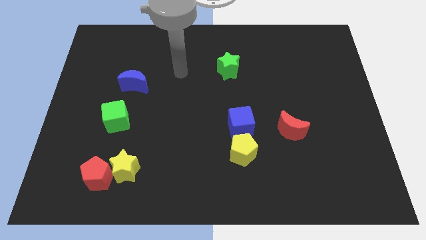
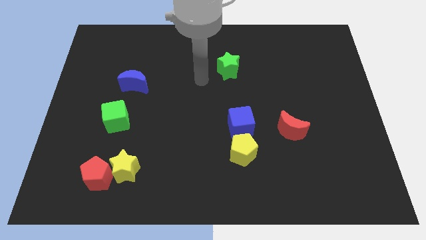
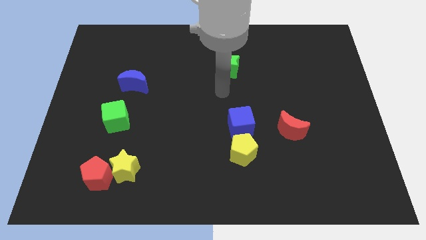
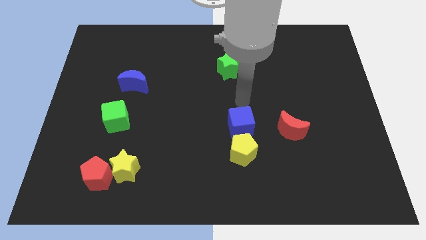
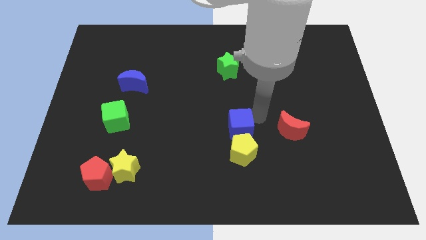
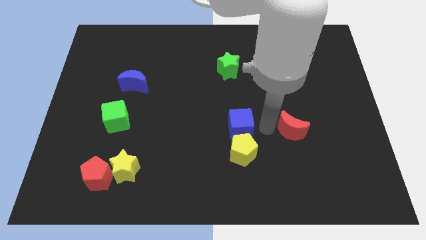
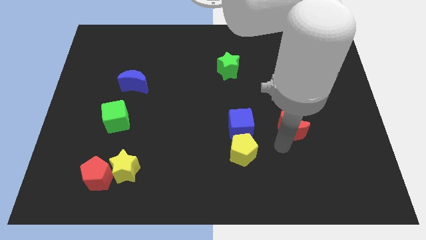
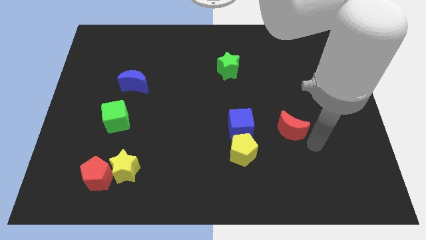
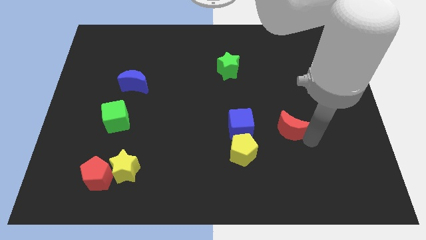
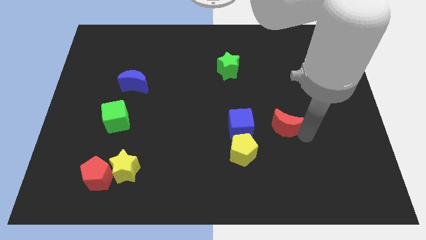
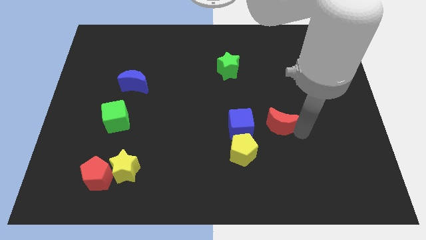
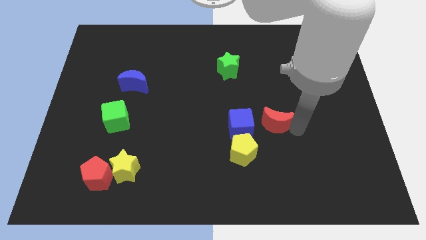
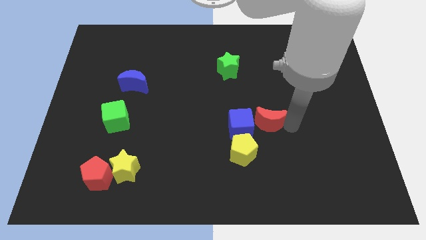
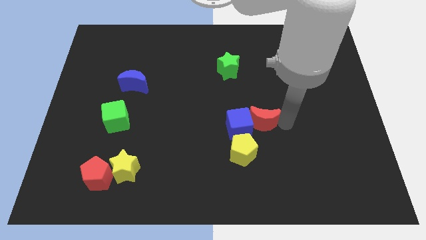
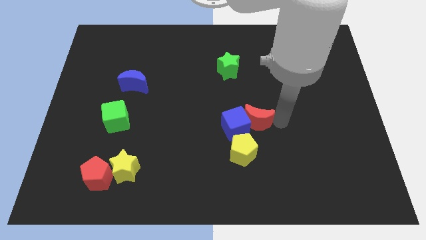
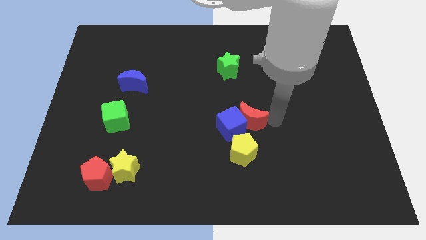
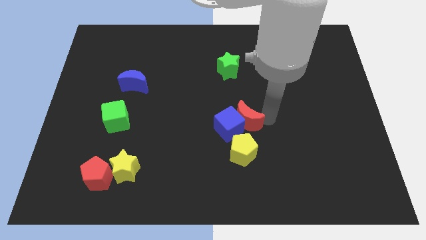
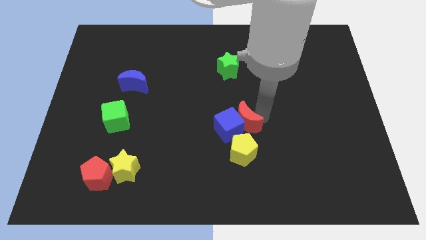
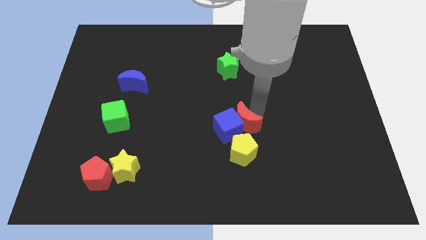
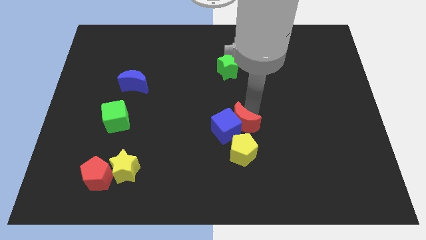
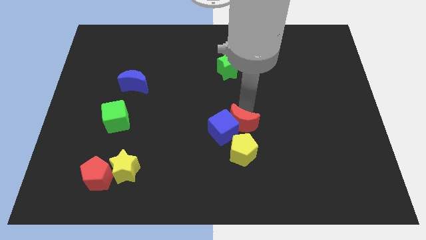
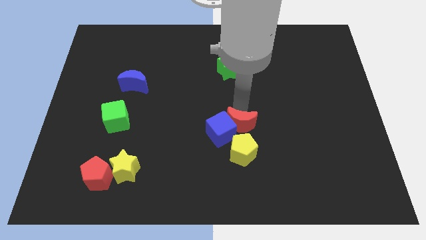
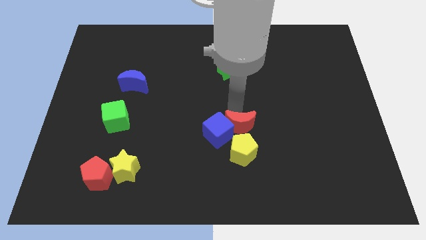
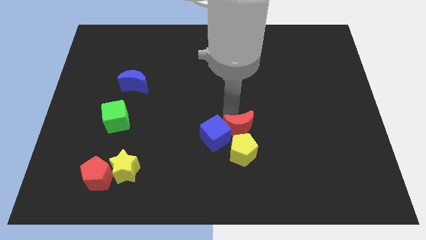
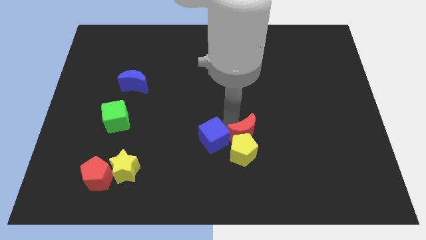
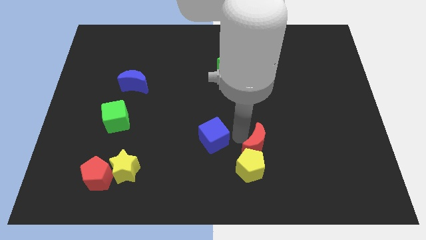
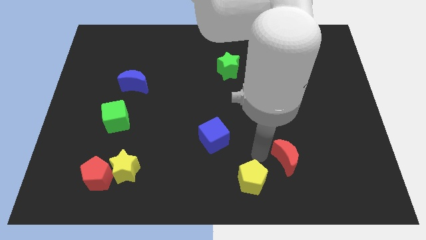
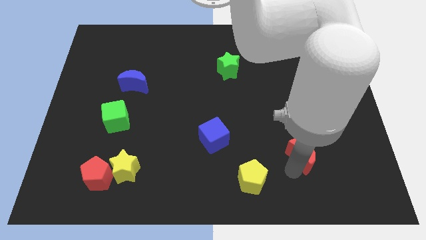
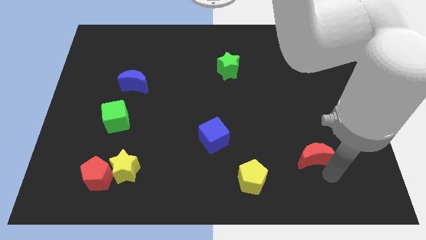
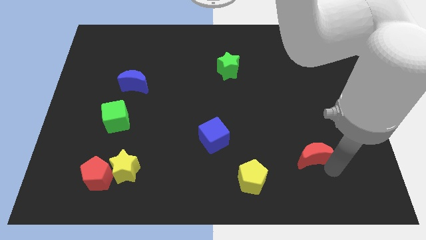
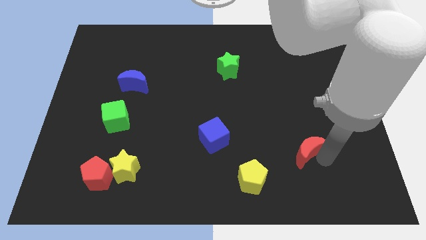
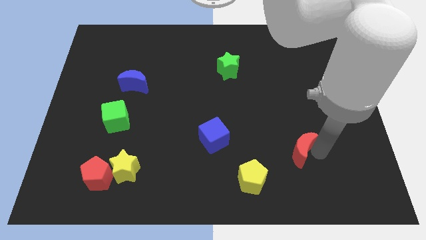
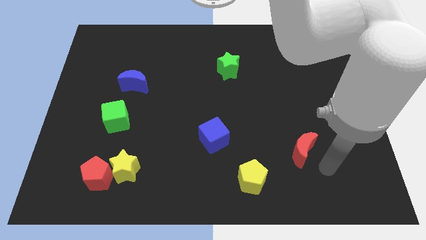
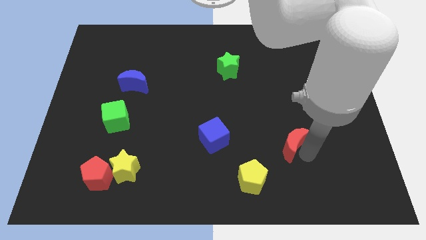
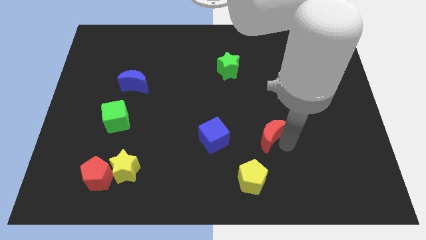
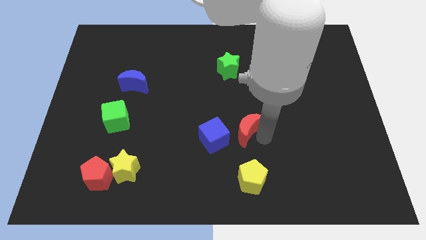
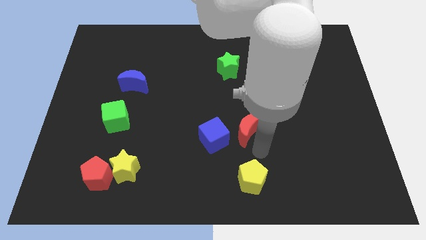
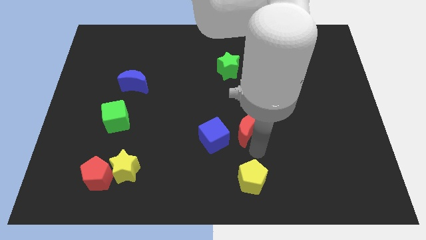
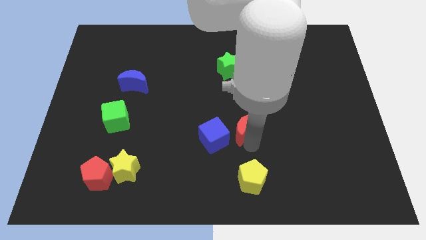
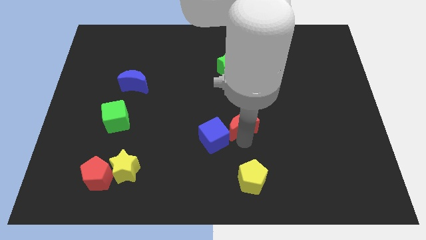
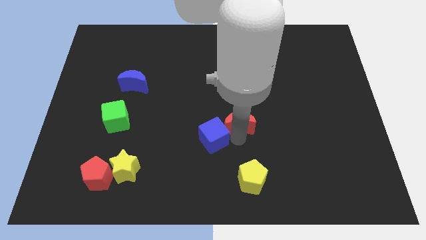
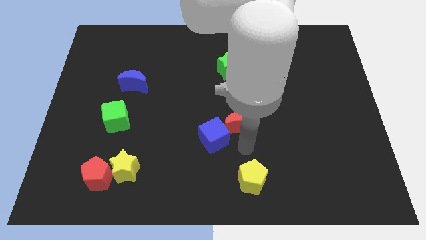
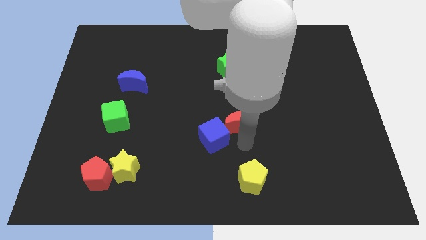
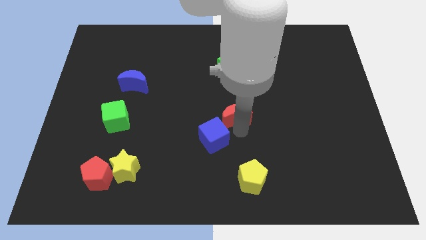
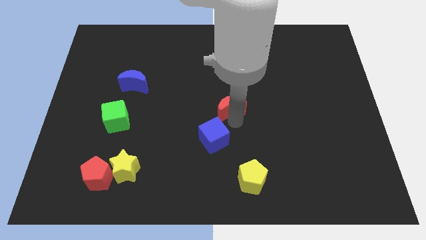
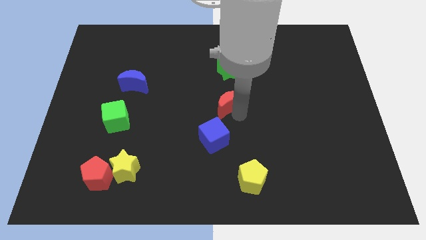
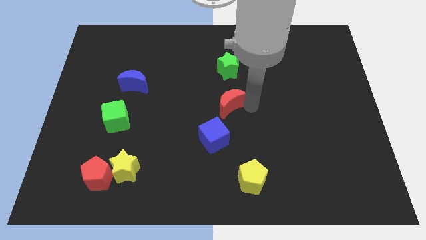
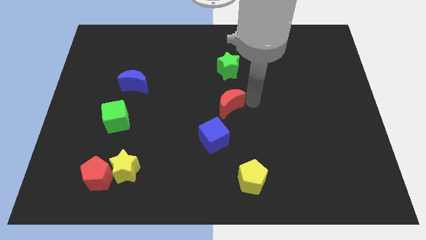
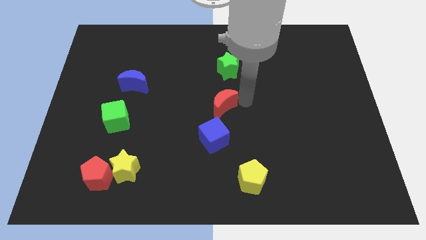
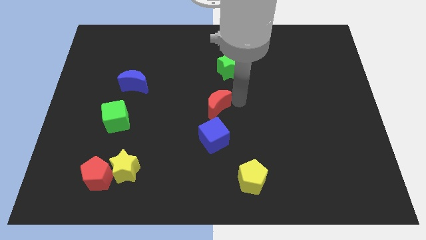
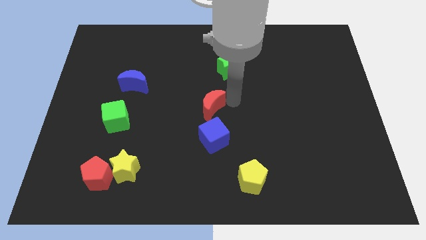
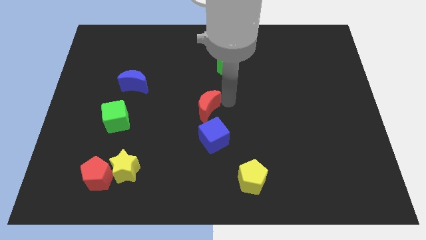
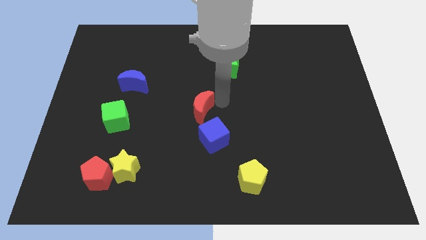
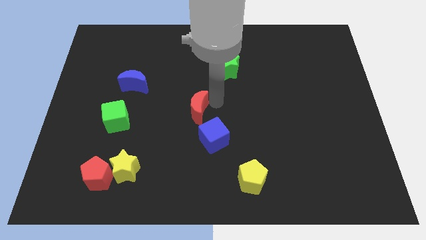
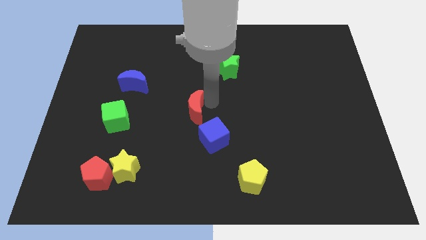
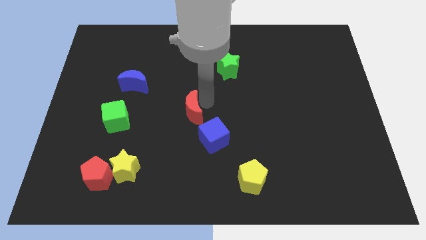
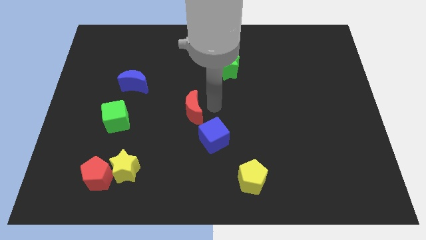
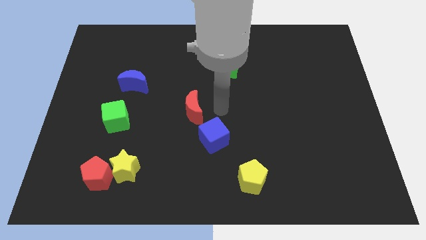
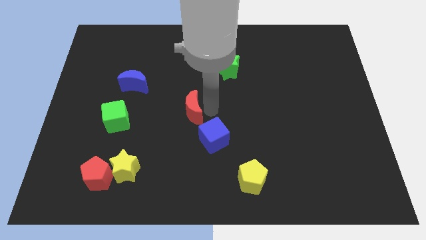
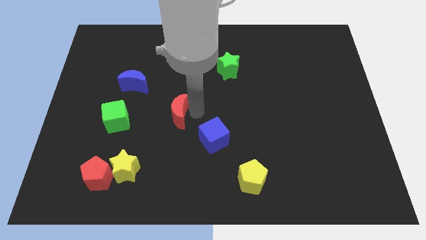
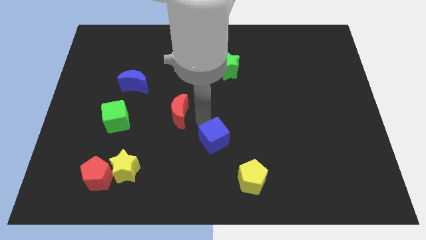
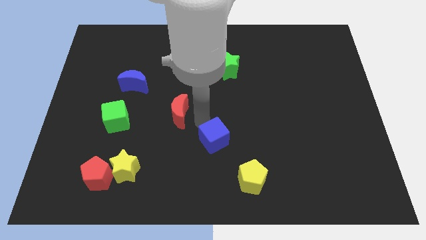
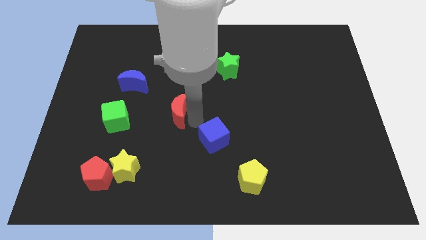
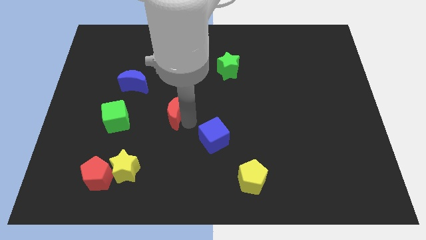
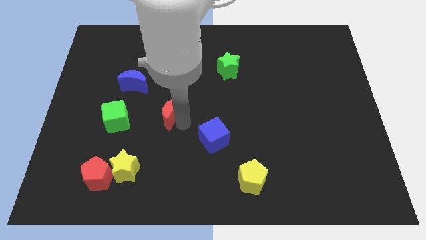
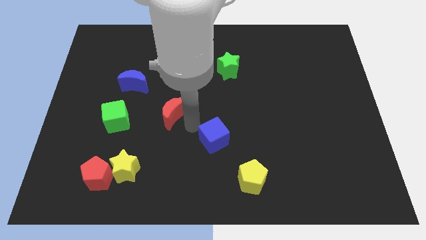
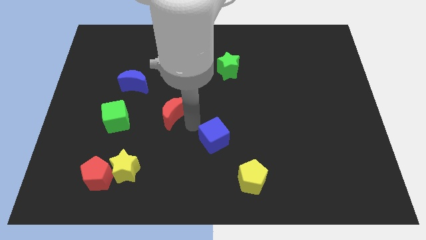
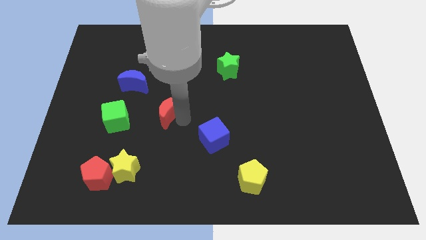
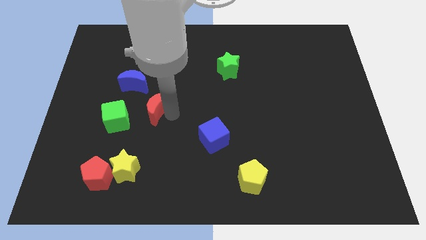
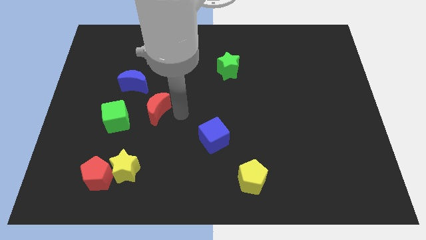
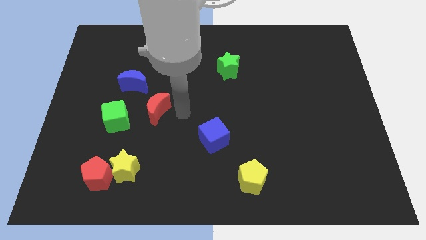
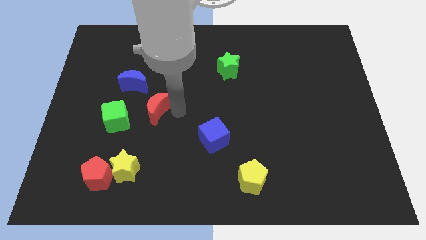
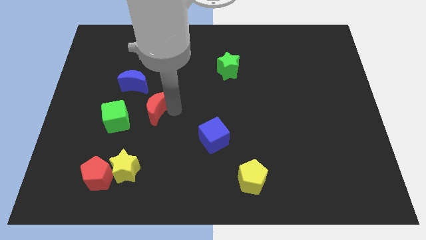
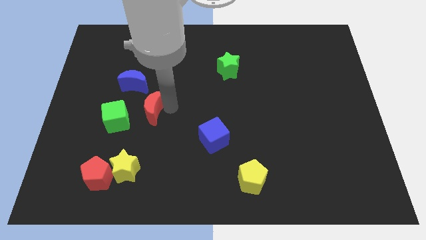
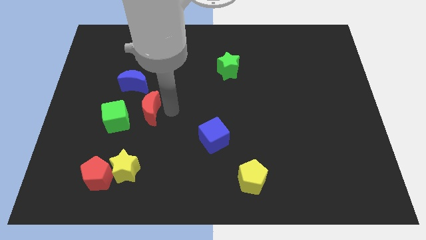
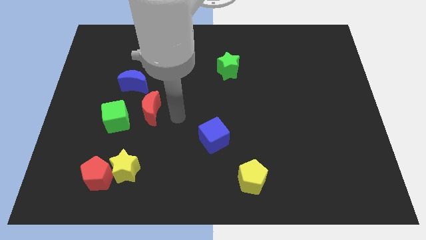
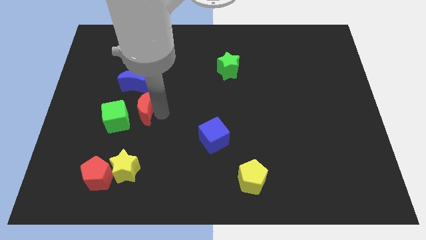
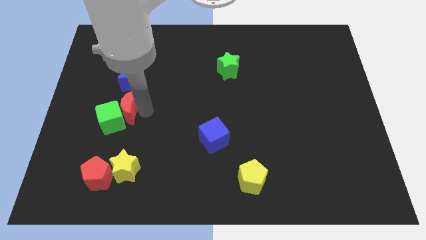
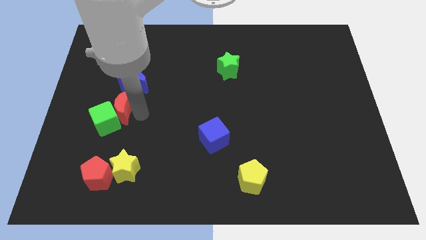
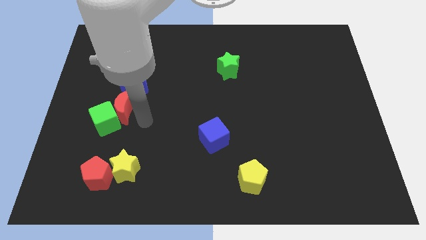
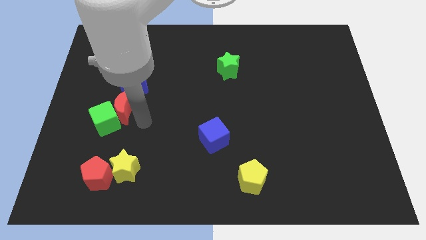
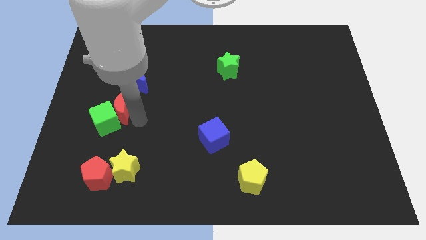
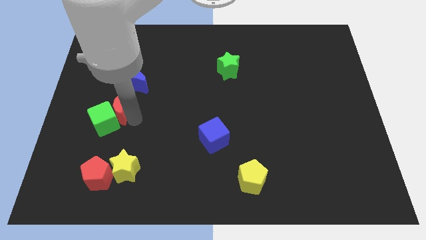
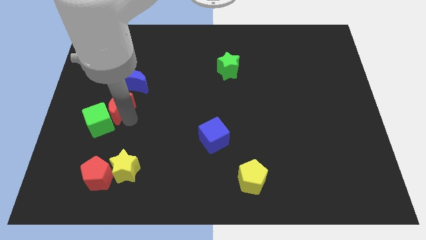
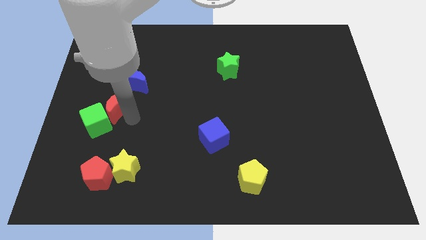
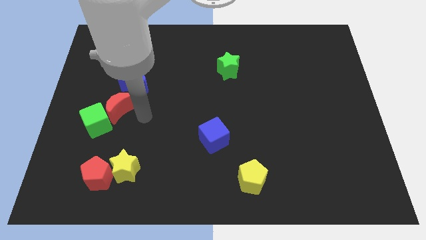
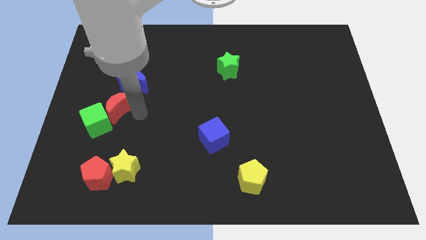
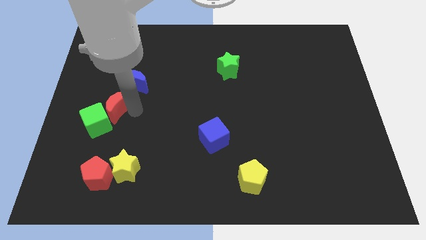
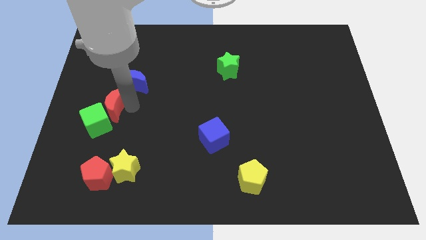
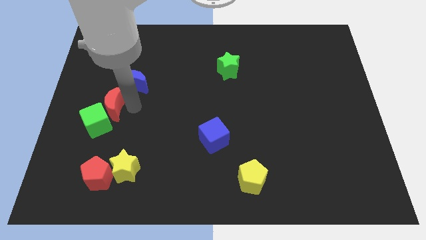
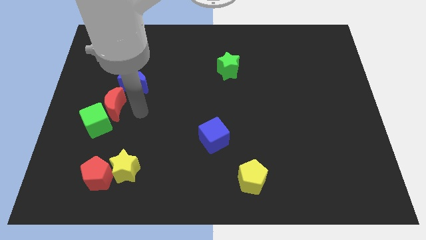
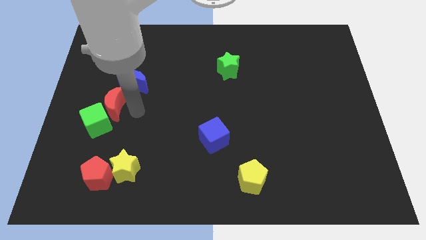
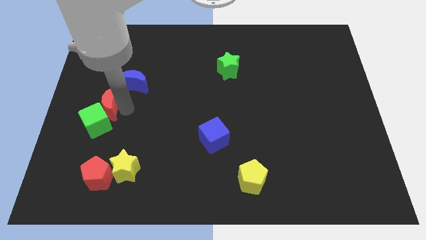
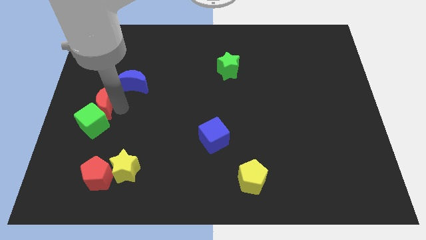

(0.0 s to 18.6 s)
put the red moon to the center left
